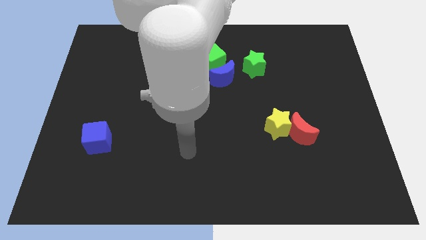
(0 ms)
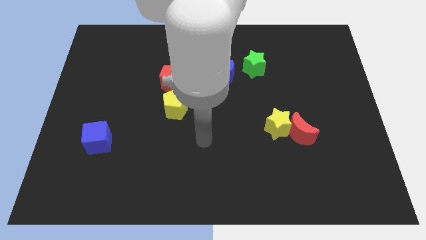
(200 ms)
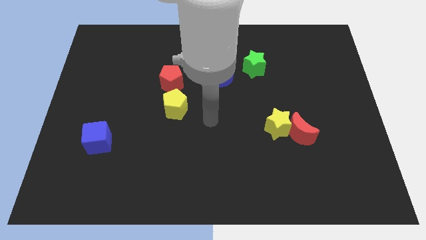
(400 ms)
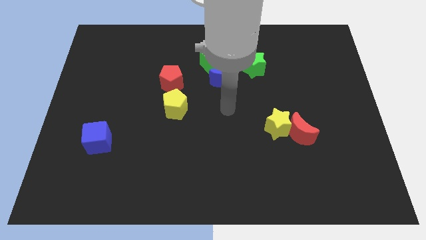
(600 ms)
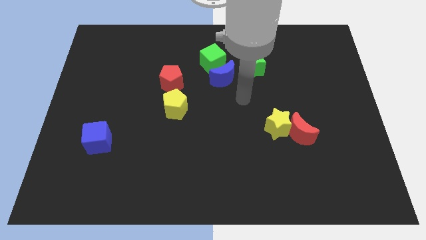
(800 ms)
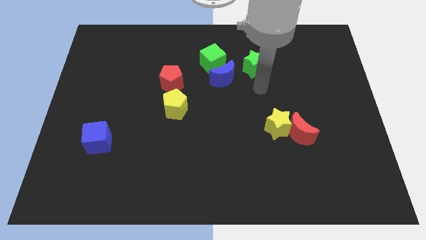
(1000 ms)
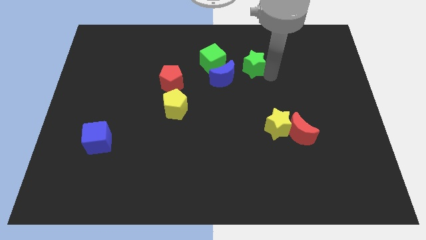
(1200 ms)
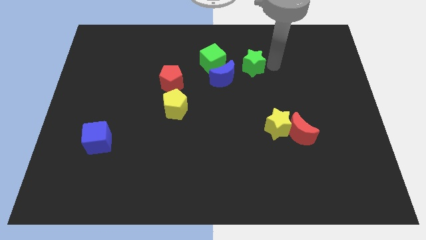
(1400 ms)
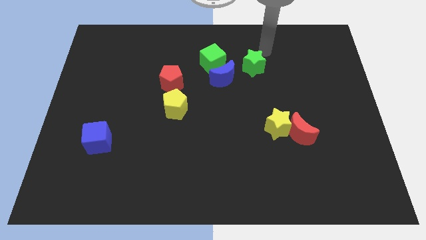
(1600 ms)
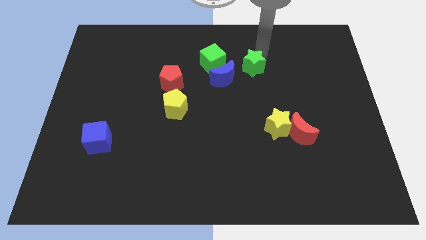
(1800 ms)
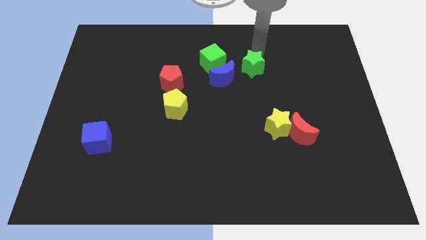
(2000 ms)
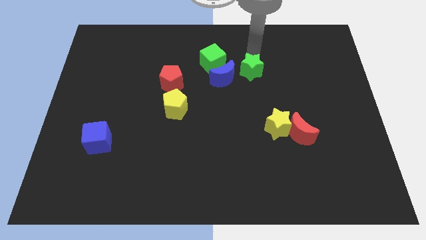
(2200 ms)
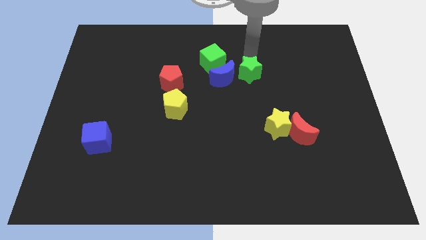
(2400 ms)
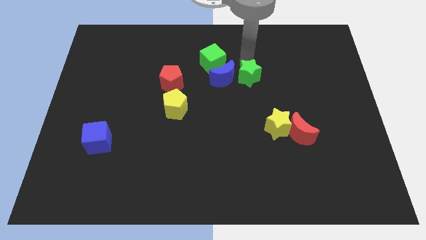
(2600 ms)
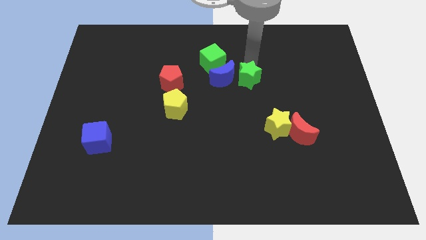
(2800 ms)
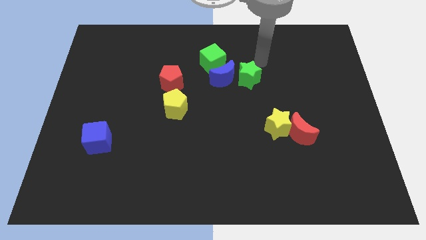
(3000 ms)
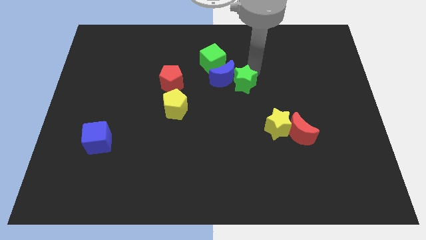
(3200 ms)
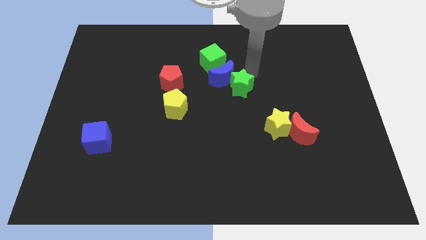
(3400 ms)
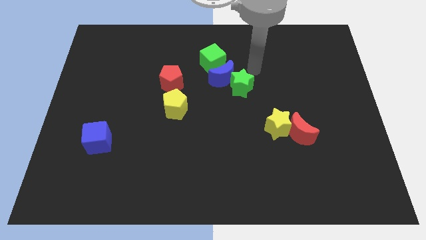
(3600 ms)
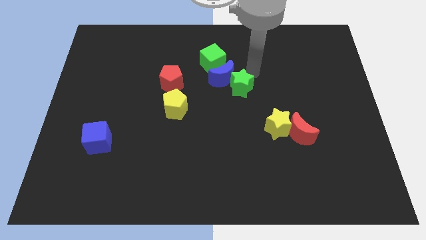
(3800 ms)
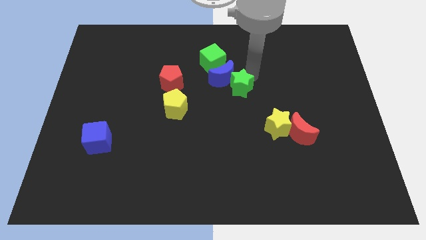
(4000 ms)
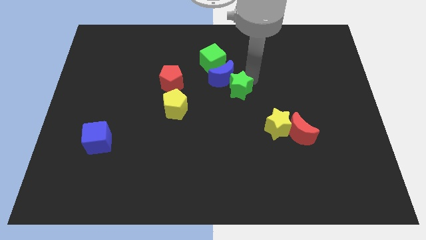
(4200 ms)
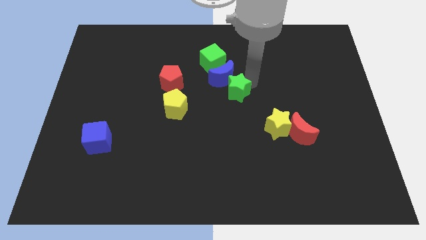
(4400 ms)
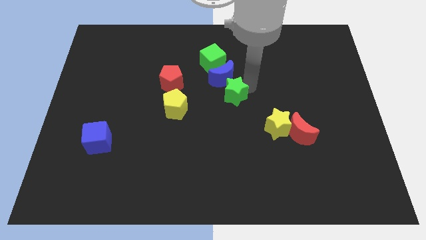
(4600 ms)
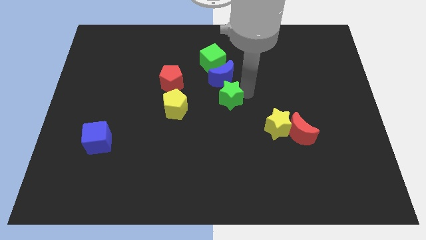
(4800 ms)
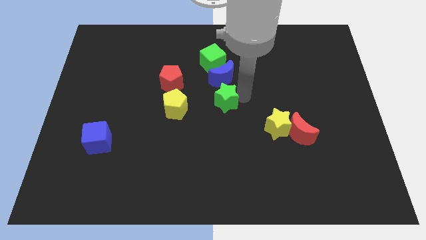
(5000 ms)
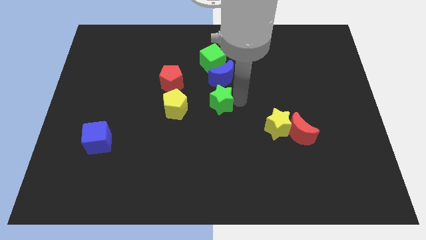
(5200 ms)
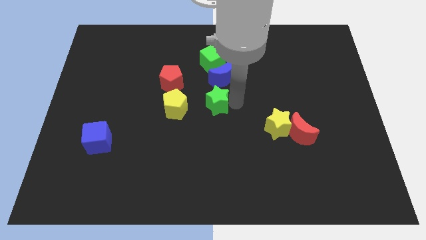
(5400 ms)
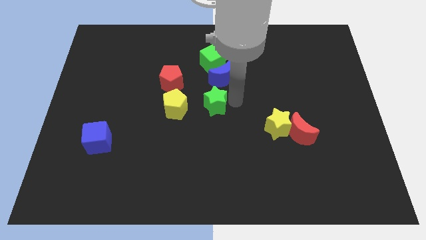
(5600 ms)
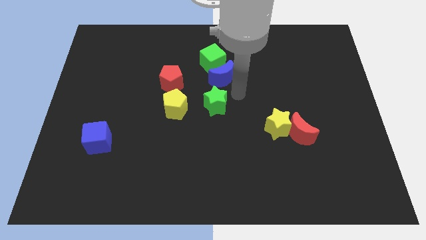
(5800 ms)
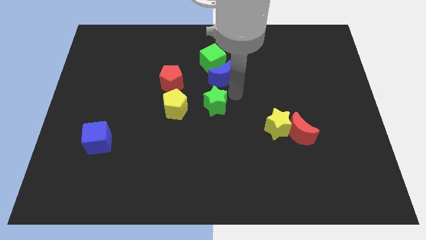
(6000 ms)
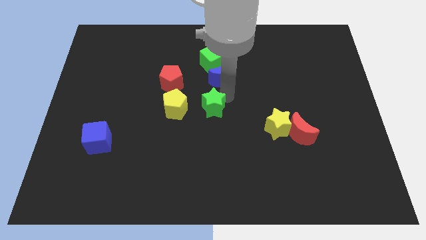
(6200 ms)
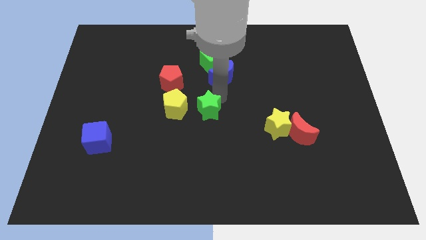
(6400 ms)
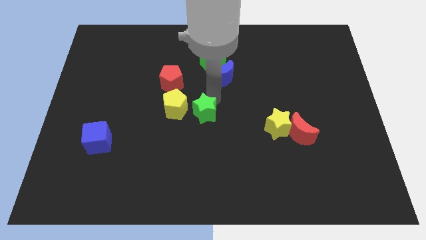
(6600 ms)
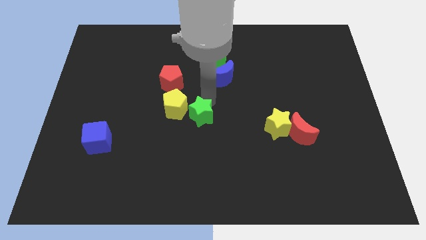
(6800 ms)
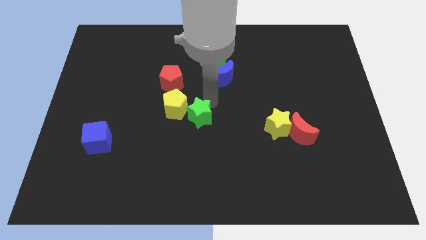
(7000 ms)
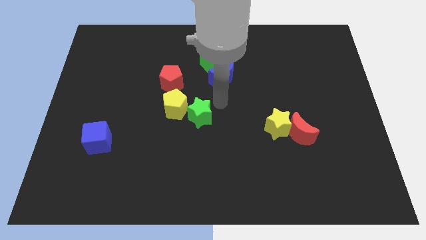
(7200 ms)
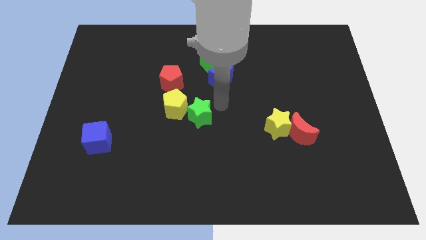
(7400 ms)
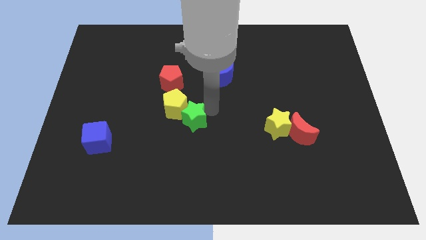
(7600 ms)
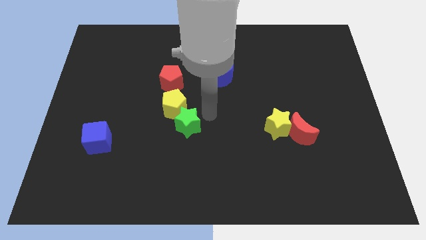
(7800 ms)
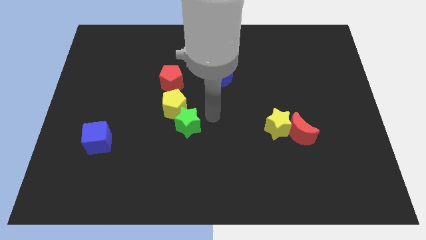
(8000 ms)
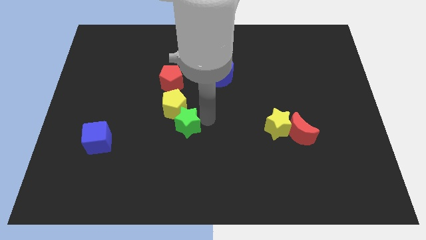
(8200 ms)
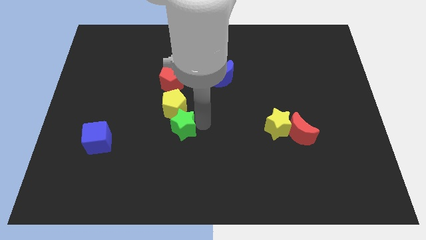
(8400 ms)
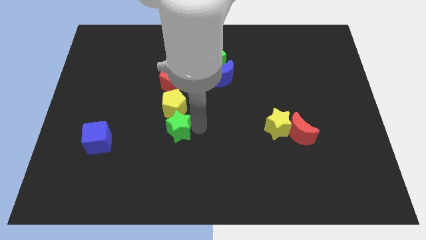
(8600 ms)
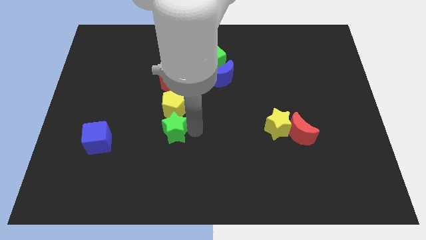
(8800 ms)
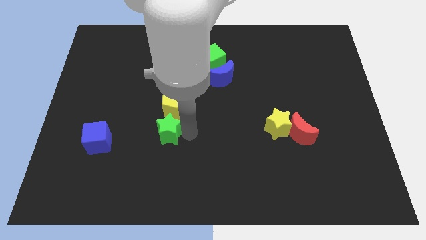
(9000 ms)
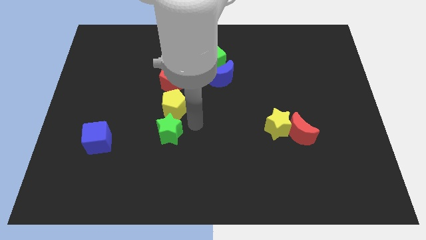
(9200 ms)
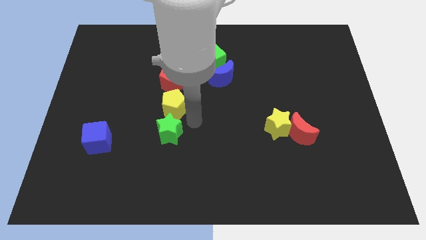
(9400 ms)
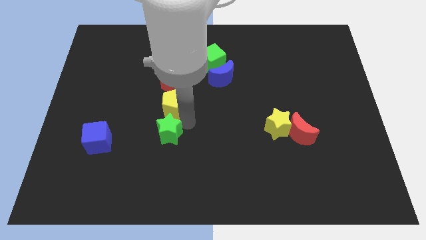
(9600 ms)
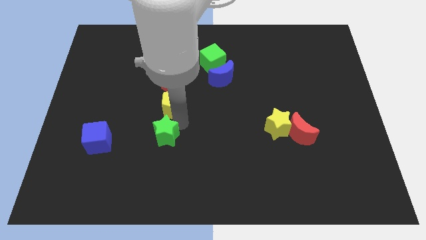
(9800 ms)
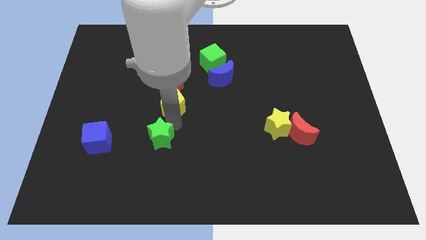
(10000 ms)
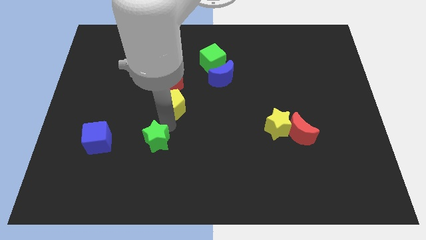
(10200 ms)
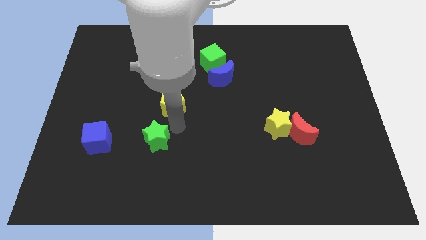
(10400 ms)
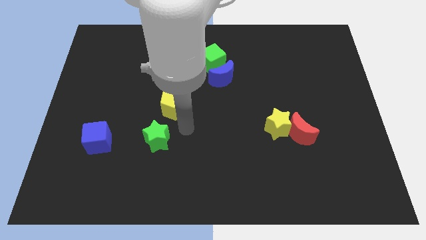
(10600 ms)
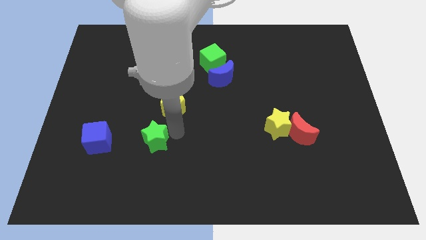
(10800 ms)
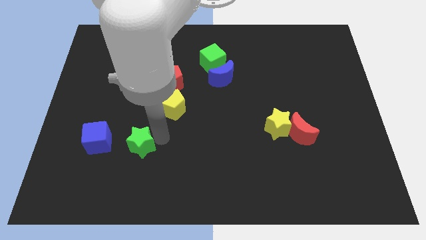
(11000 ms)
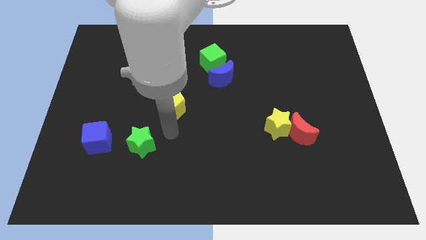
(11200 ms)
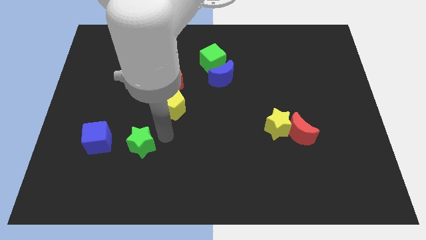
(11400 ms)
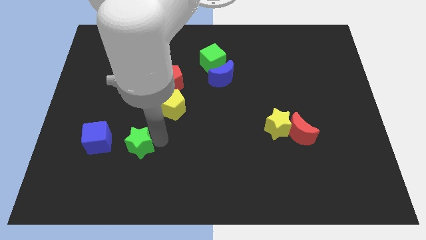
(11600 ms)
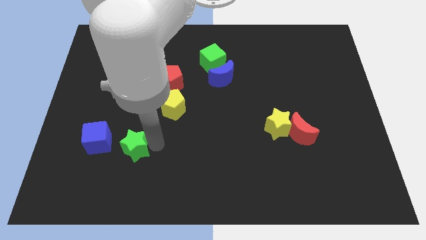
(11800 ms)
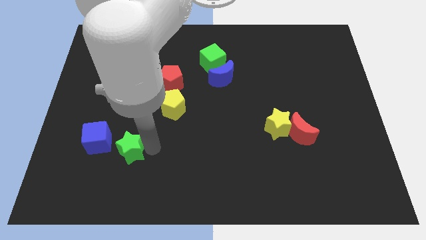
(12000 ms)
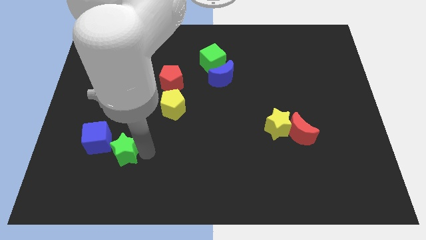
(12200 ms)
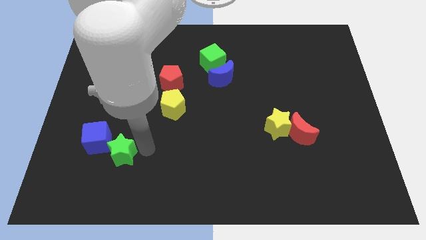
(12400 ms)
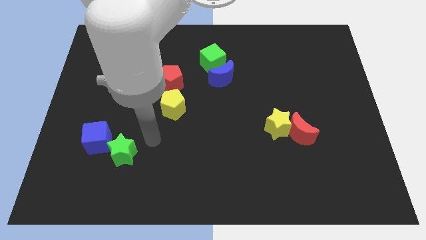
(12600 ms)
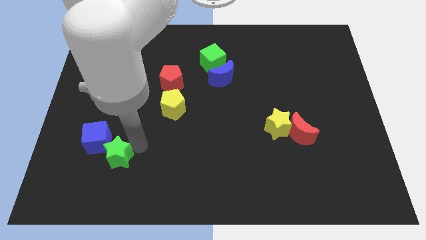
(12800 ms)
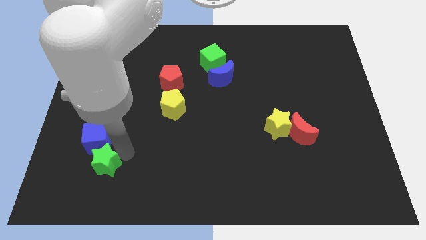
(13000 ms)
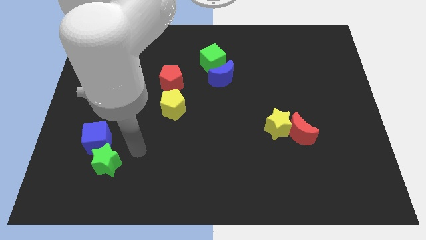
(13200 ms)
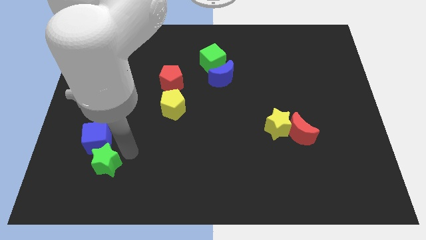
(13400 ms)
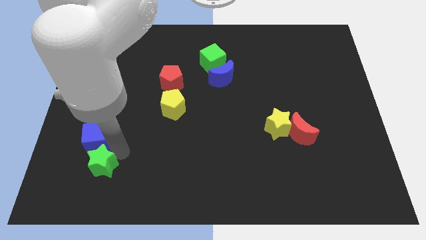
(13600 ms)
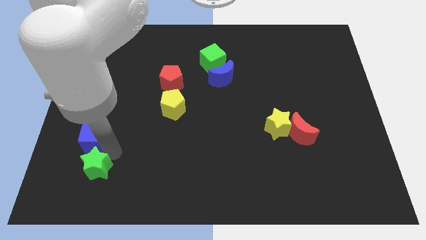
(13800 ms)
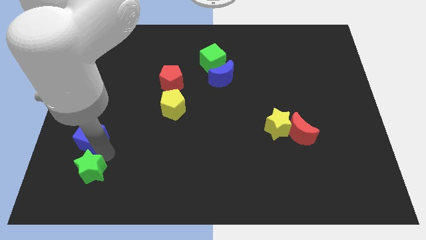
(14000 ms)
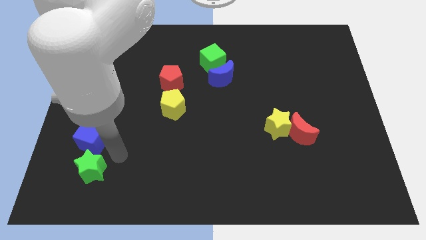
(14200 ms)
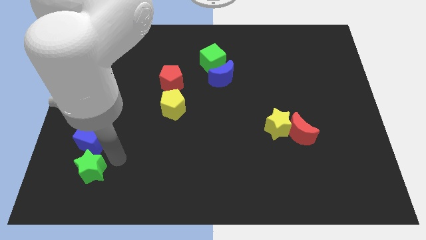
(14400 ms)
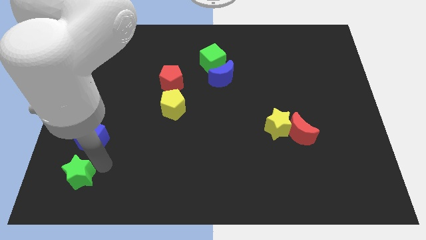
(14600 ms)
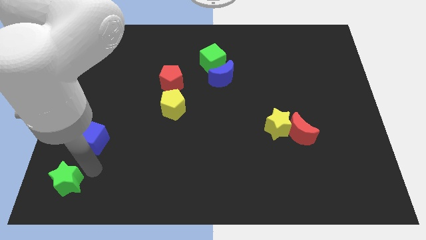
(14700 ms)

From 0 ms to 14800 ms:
slide the green star to the bottom left
